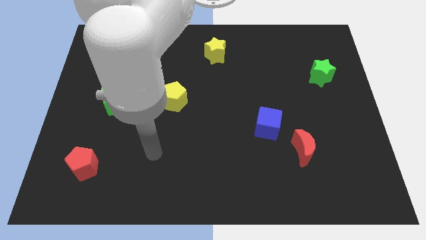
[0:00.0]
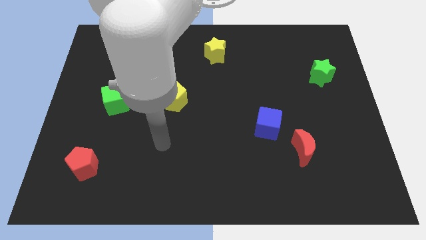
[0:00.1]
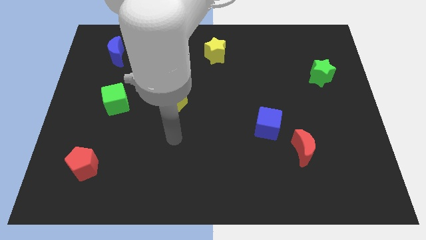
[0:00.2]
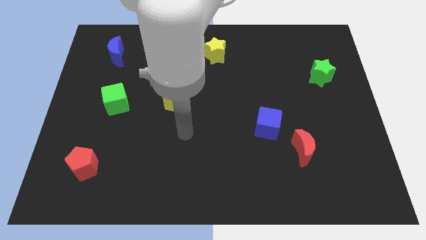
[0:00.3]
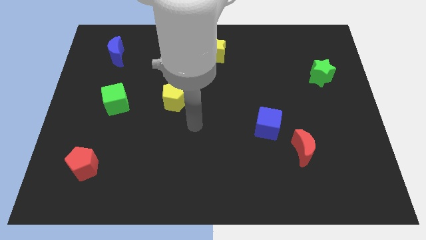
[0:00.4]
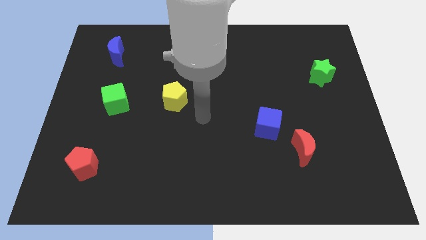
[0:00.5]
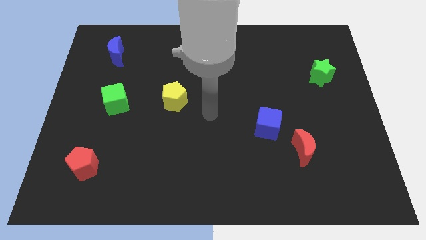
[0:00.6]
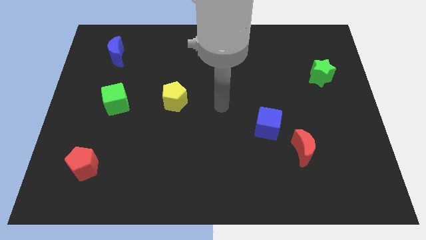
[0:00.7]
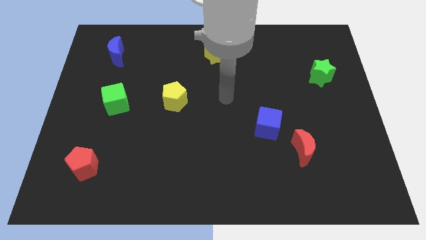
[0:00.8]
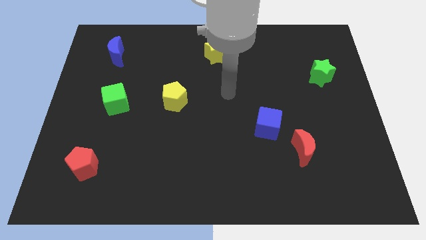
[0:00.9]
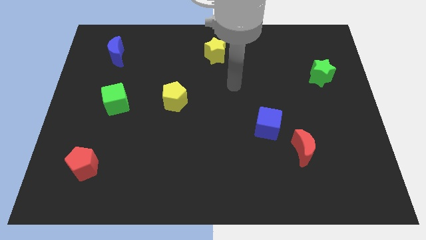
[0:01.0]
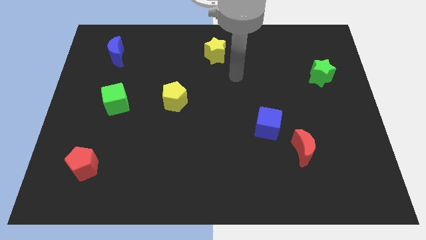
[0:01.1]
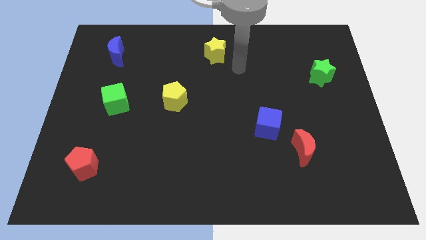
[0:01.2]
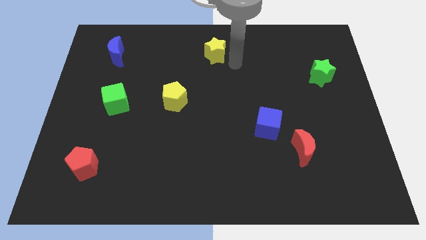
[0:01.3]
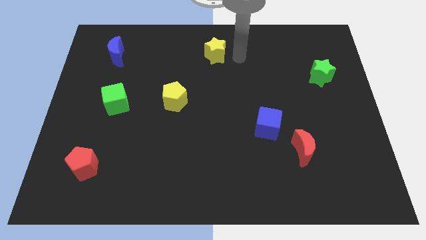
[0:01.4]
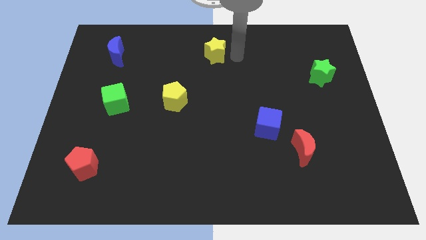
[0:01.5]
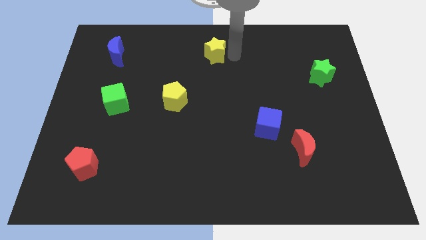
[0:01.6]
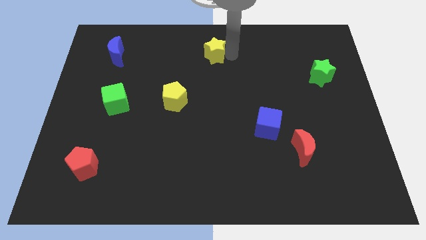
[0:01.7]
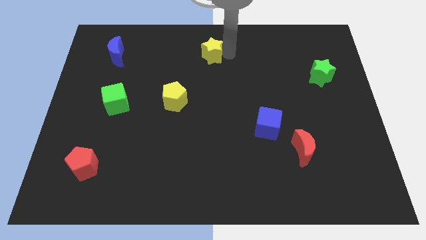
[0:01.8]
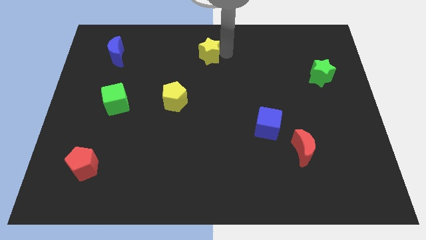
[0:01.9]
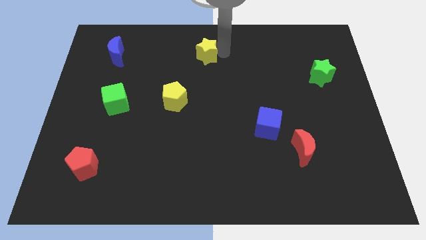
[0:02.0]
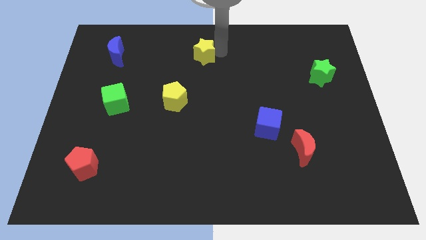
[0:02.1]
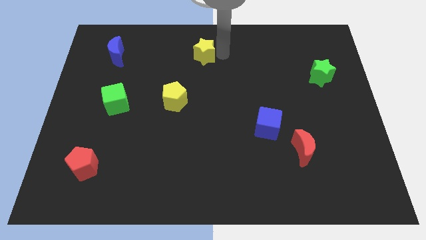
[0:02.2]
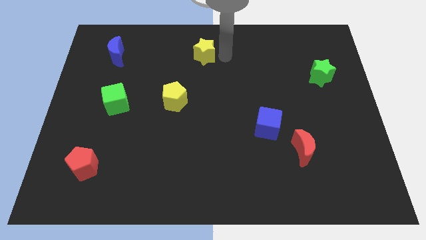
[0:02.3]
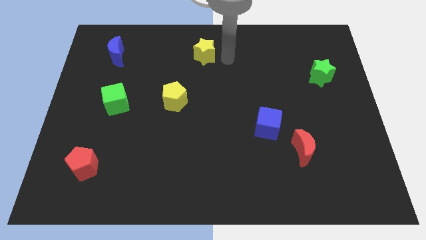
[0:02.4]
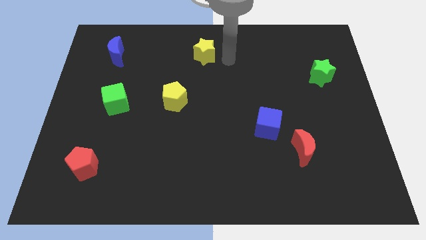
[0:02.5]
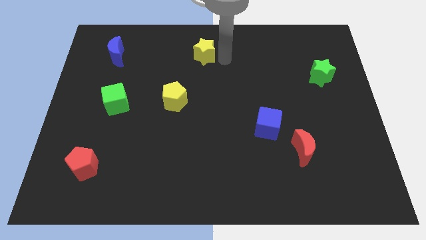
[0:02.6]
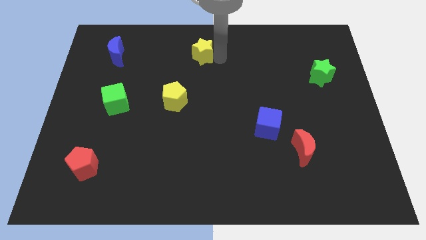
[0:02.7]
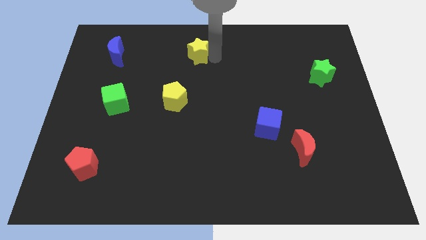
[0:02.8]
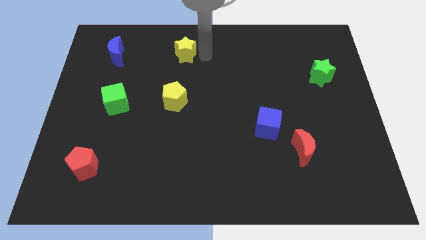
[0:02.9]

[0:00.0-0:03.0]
move the yellow star to the left a little

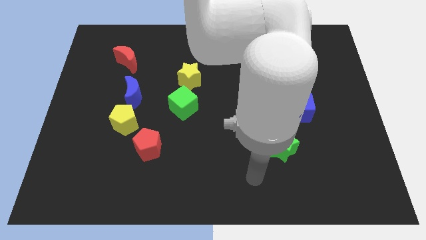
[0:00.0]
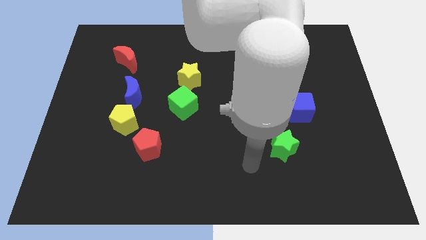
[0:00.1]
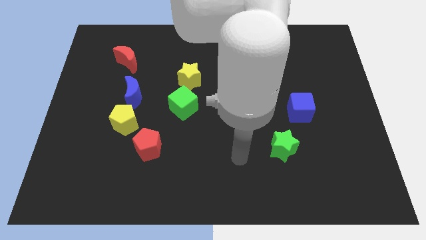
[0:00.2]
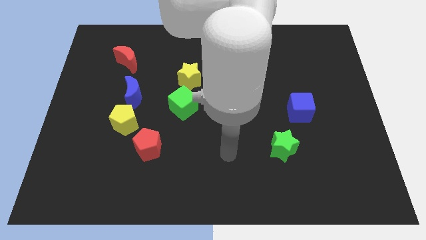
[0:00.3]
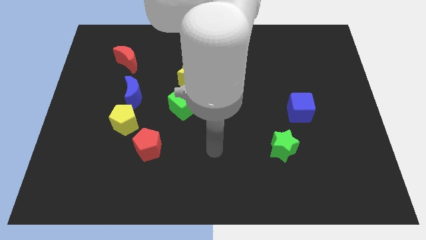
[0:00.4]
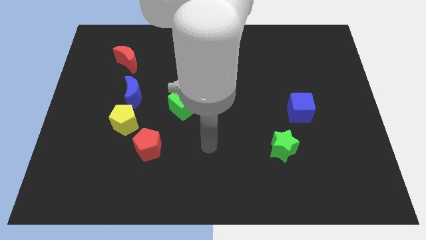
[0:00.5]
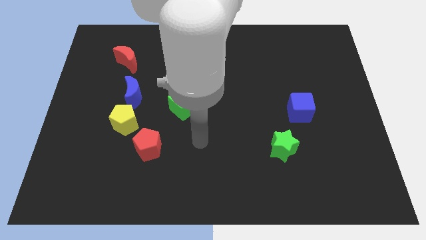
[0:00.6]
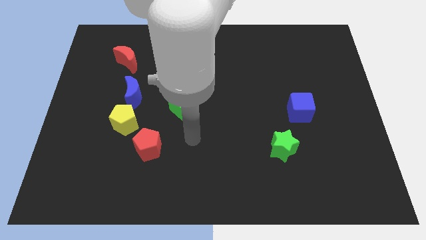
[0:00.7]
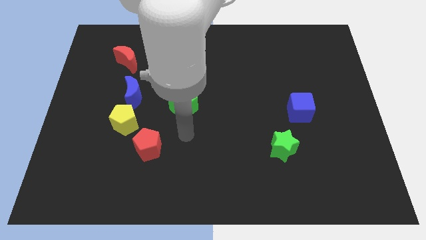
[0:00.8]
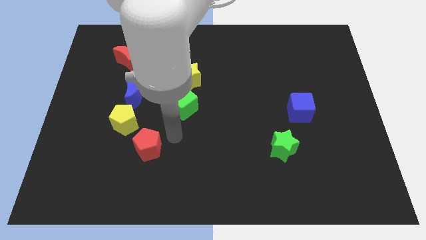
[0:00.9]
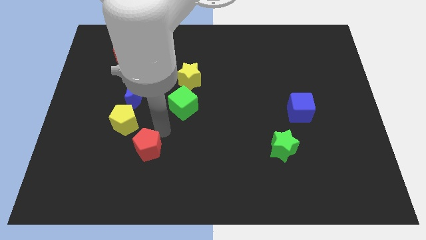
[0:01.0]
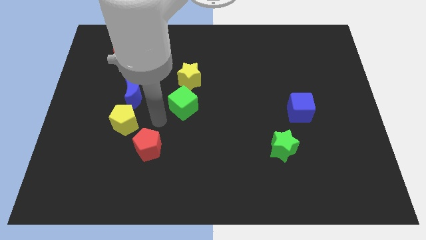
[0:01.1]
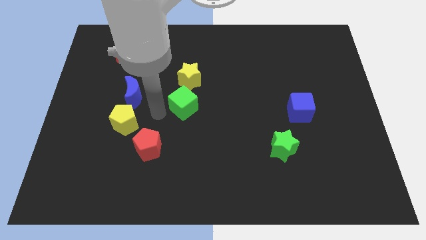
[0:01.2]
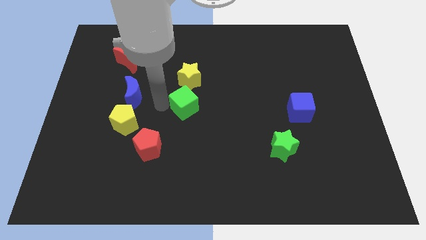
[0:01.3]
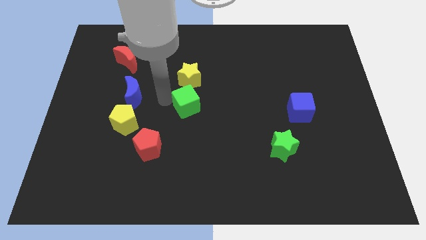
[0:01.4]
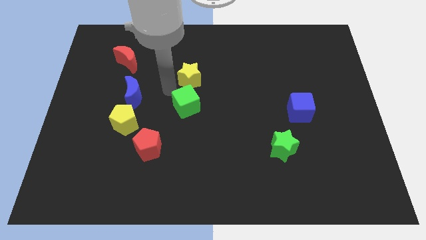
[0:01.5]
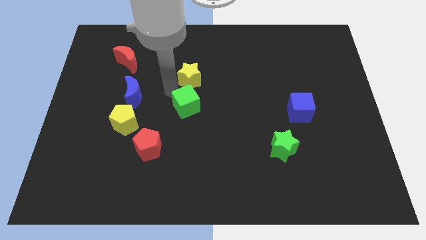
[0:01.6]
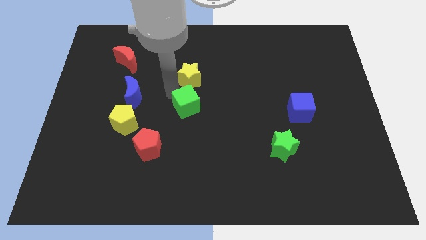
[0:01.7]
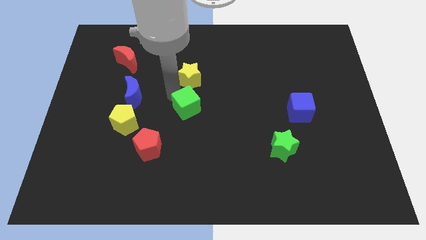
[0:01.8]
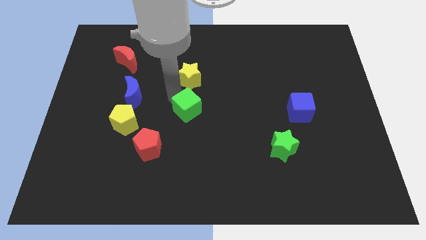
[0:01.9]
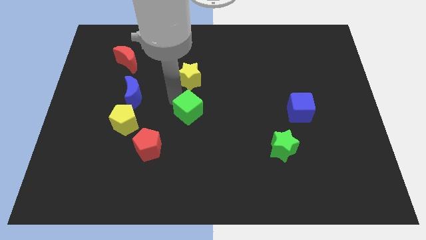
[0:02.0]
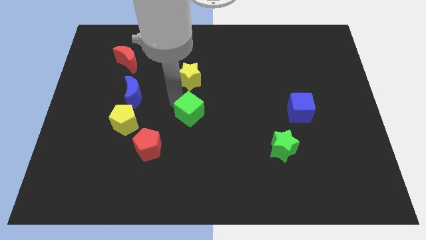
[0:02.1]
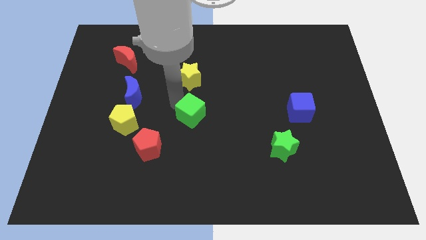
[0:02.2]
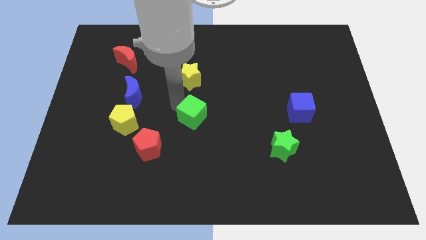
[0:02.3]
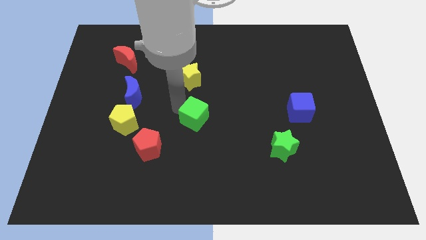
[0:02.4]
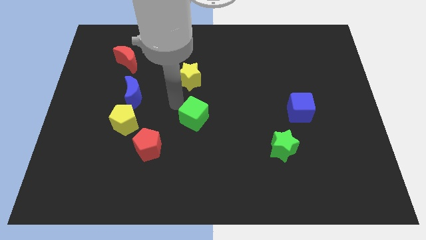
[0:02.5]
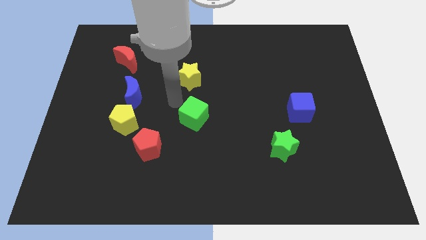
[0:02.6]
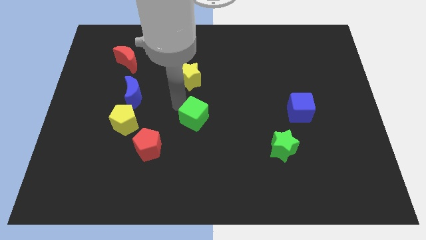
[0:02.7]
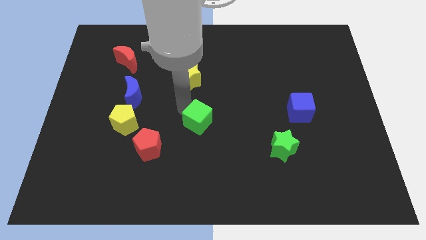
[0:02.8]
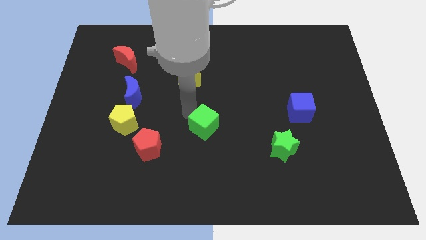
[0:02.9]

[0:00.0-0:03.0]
slide the green cube somewhat down and to the right diagonally

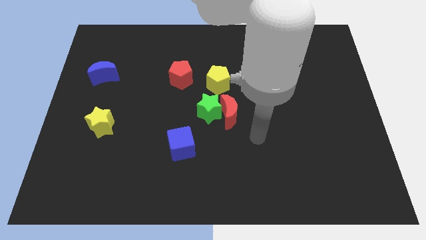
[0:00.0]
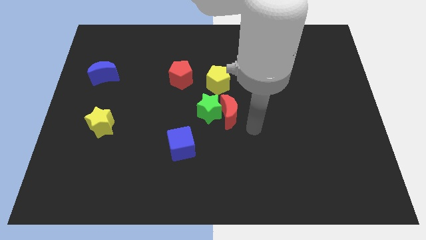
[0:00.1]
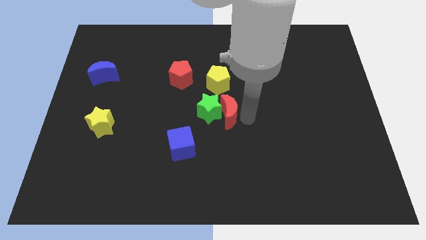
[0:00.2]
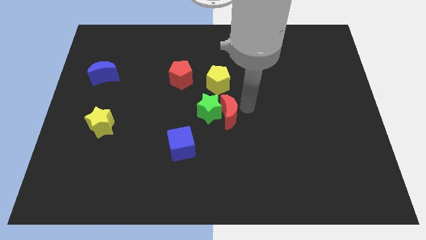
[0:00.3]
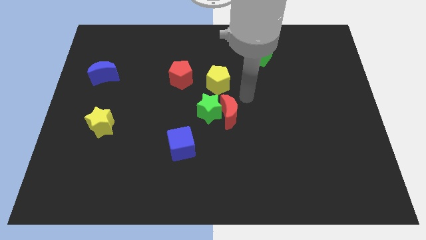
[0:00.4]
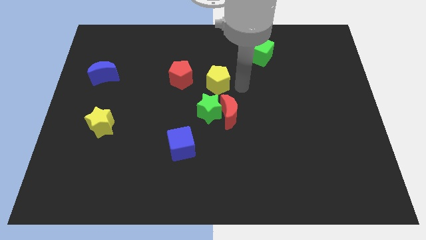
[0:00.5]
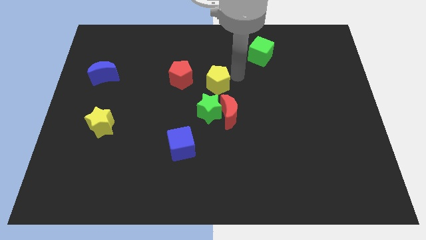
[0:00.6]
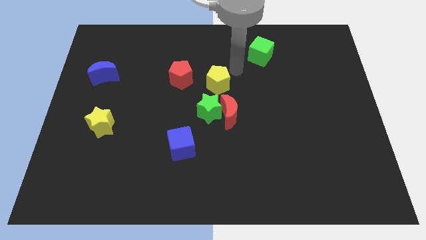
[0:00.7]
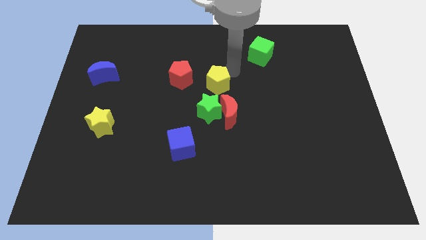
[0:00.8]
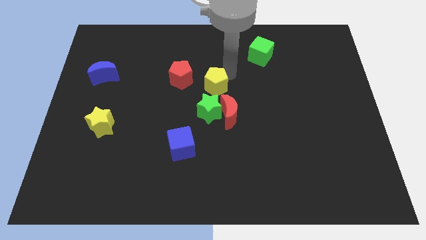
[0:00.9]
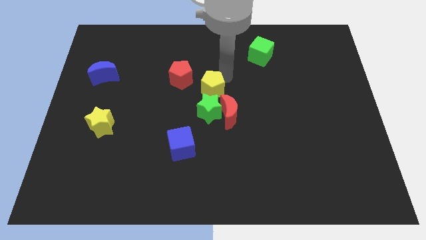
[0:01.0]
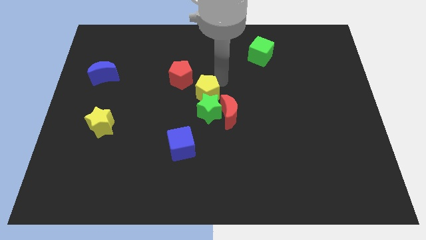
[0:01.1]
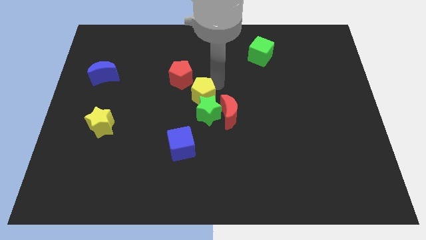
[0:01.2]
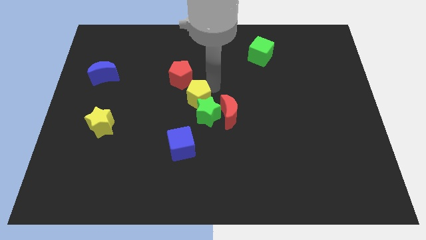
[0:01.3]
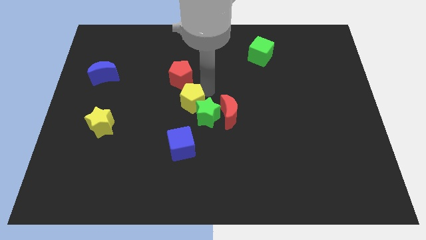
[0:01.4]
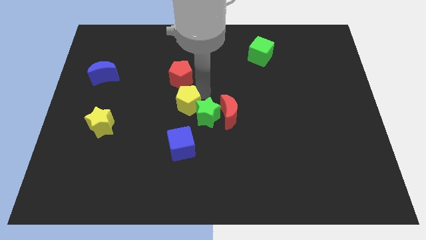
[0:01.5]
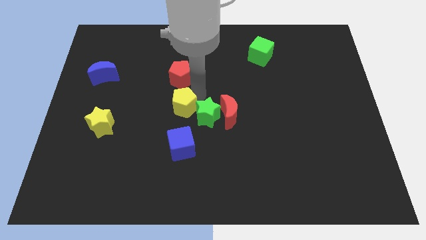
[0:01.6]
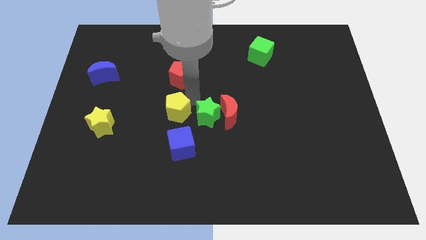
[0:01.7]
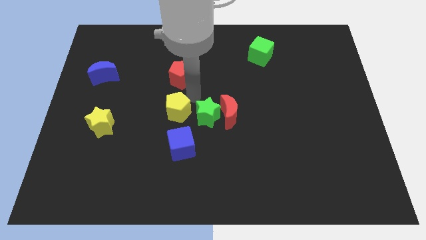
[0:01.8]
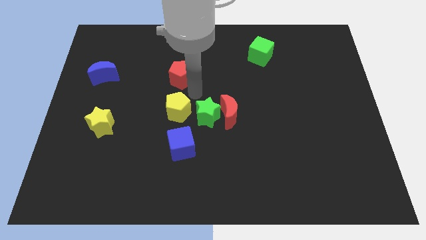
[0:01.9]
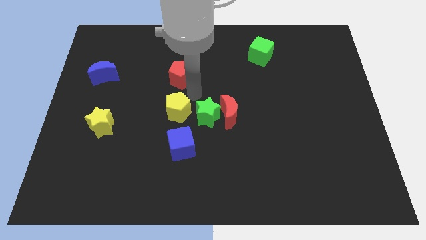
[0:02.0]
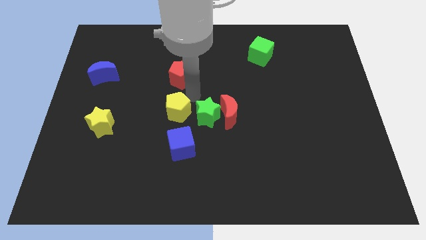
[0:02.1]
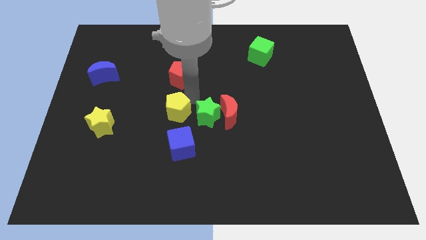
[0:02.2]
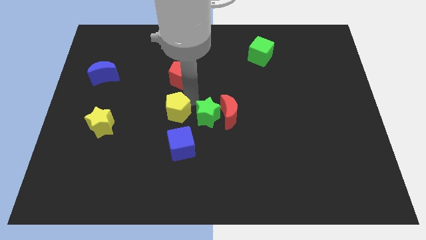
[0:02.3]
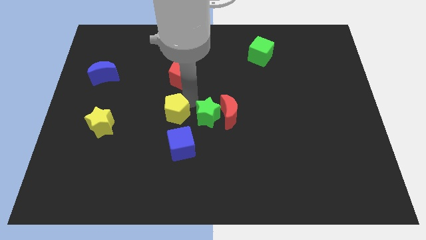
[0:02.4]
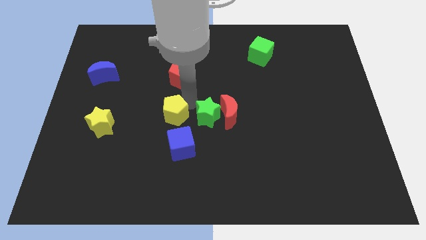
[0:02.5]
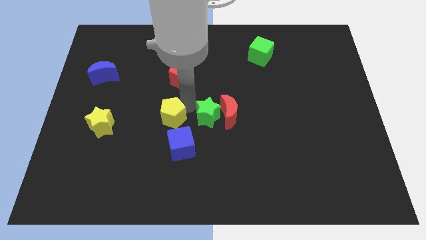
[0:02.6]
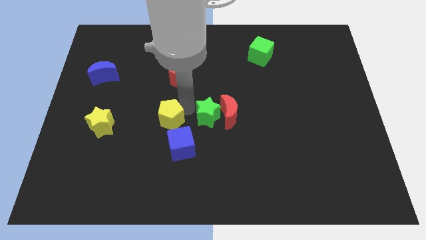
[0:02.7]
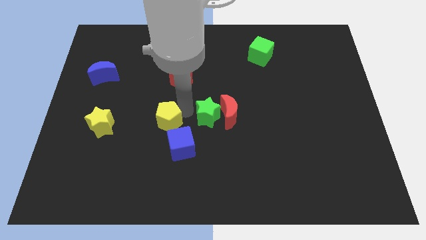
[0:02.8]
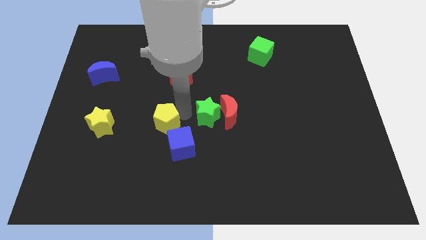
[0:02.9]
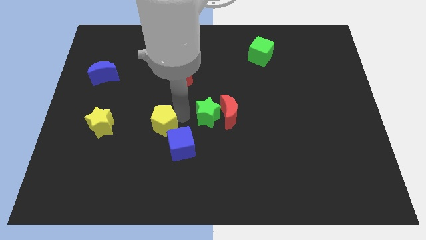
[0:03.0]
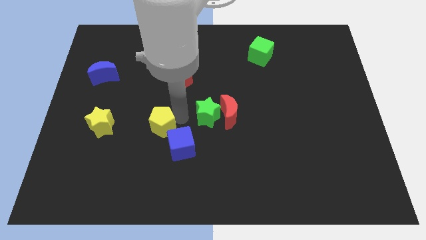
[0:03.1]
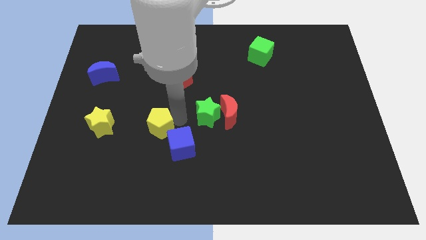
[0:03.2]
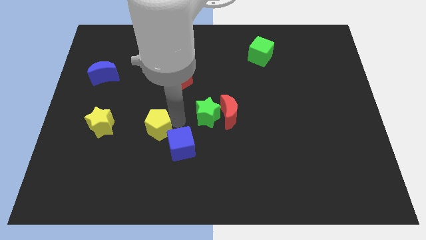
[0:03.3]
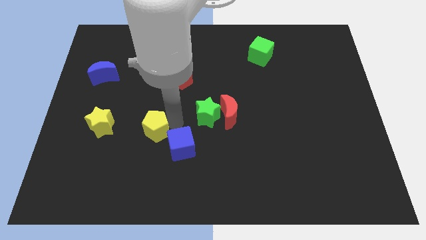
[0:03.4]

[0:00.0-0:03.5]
move the yellow pentagon down and left
